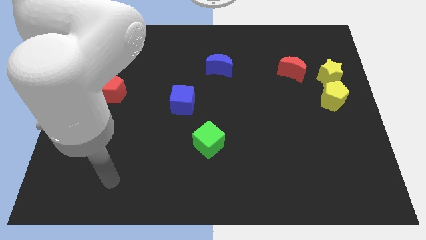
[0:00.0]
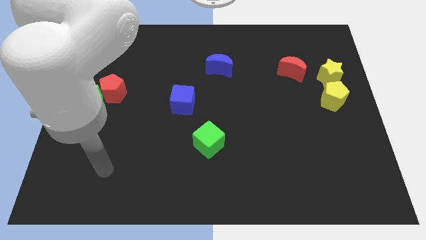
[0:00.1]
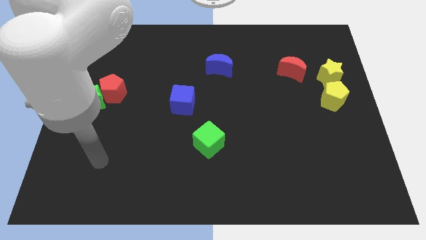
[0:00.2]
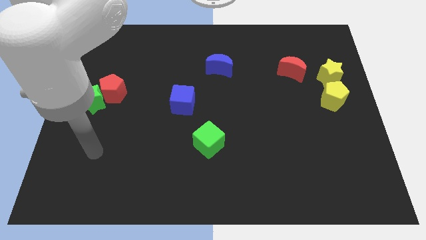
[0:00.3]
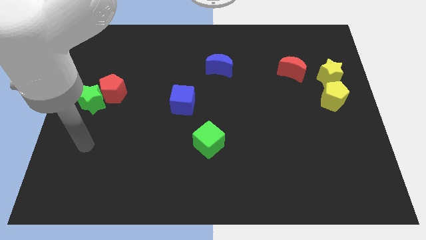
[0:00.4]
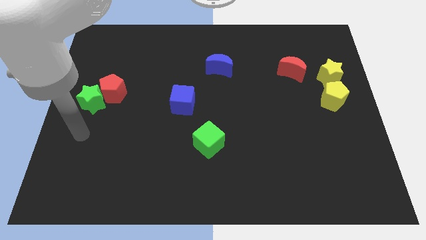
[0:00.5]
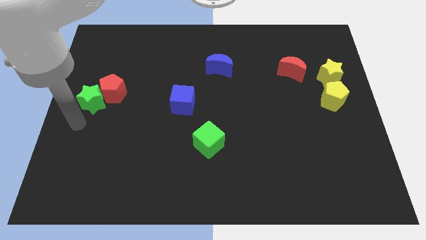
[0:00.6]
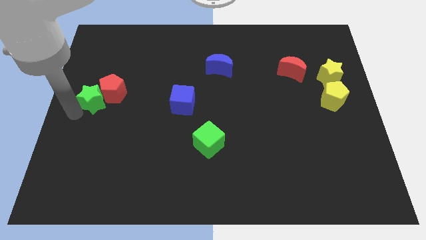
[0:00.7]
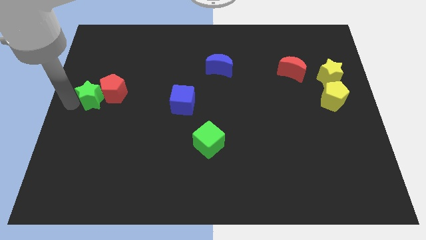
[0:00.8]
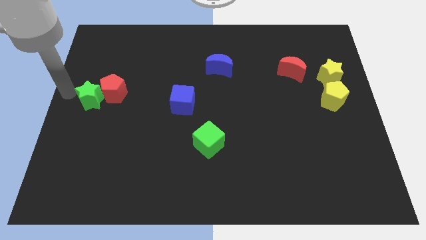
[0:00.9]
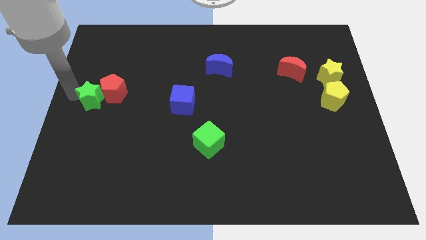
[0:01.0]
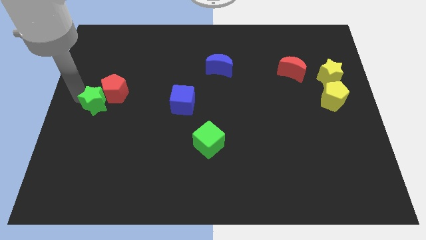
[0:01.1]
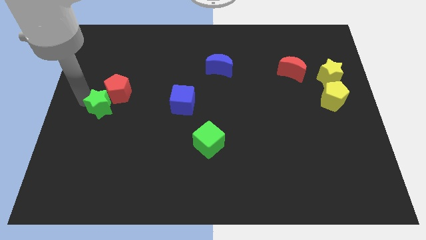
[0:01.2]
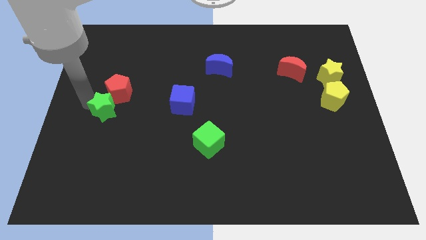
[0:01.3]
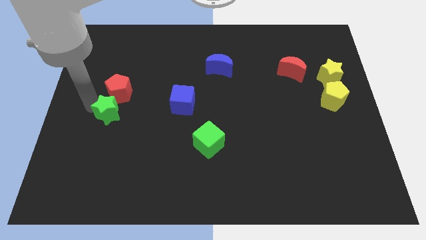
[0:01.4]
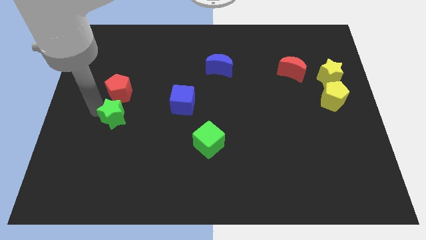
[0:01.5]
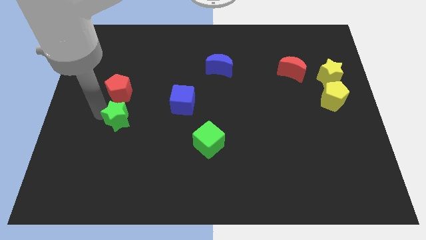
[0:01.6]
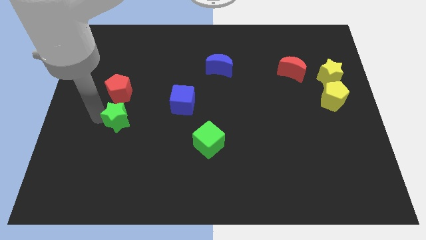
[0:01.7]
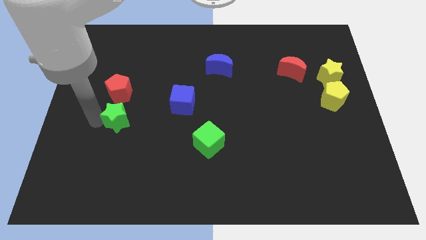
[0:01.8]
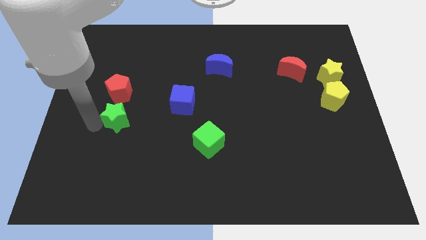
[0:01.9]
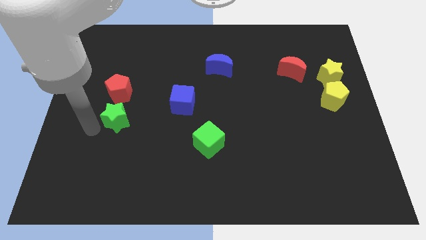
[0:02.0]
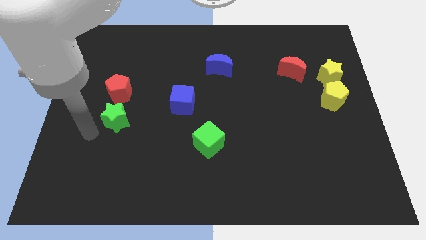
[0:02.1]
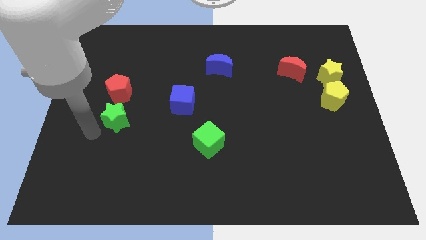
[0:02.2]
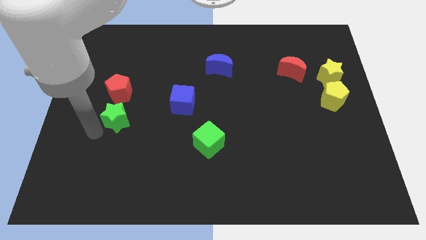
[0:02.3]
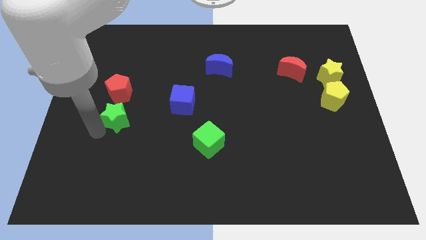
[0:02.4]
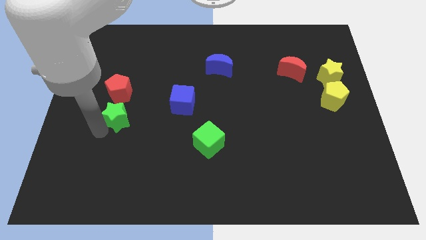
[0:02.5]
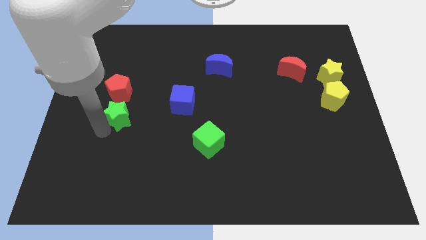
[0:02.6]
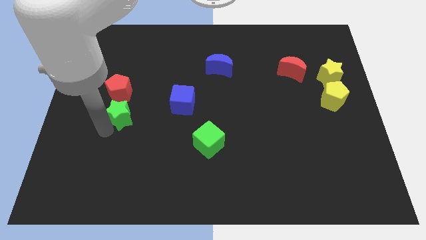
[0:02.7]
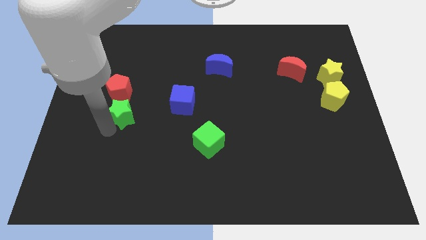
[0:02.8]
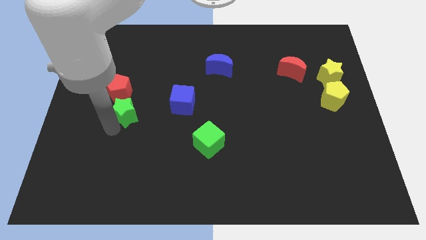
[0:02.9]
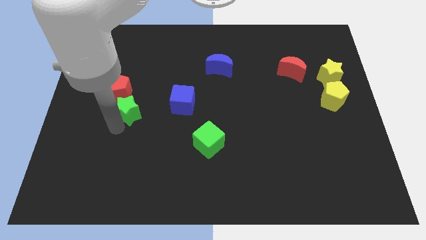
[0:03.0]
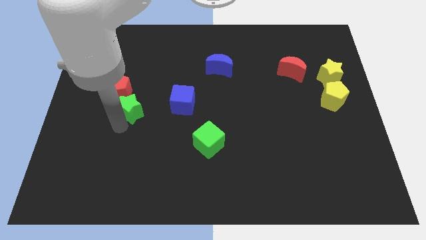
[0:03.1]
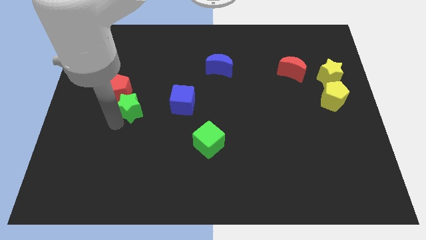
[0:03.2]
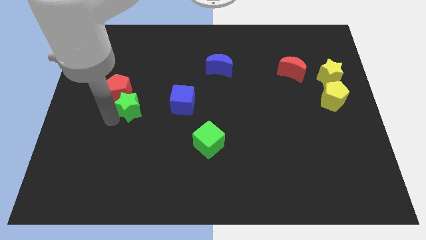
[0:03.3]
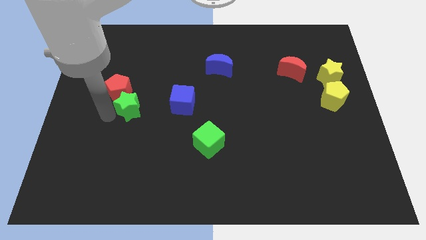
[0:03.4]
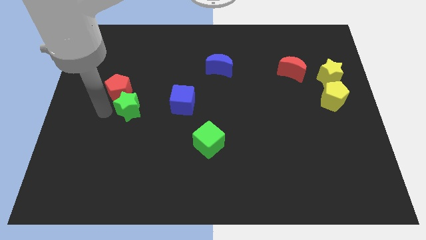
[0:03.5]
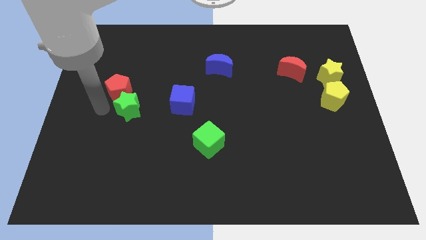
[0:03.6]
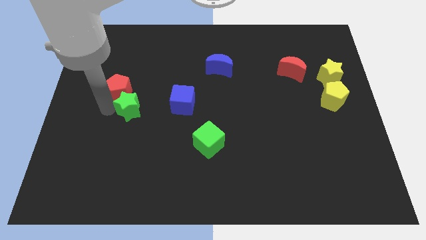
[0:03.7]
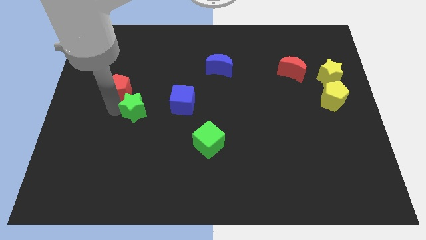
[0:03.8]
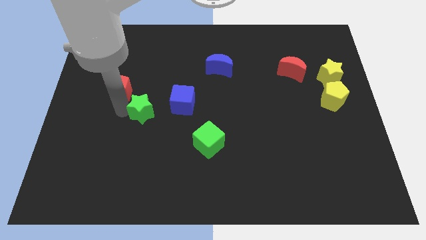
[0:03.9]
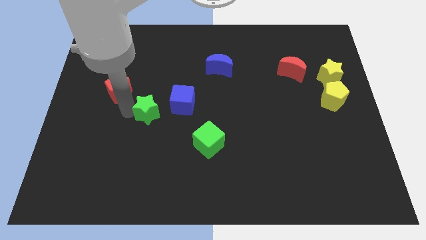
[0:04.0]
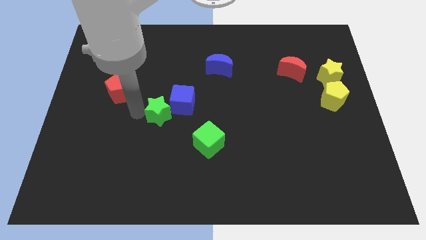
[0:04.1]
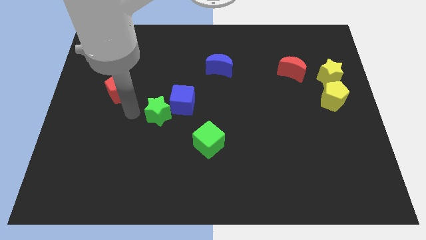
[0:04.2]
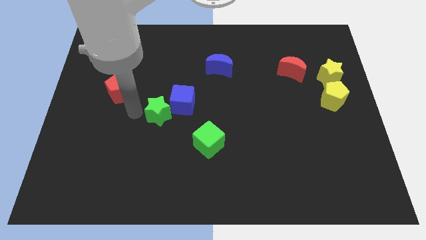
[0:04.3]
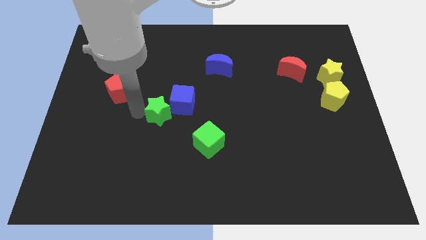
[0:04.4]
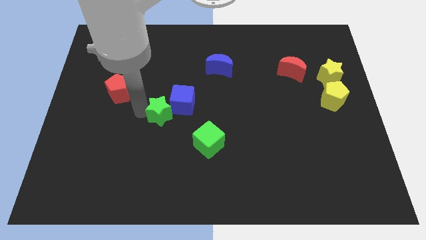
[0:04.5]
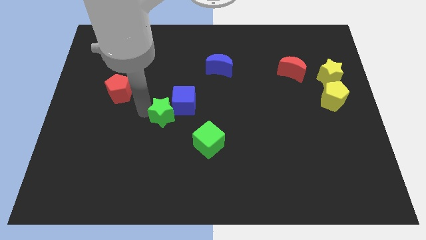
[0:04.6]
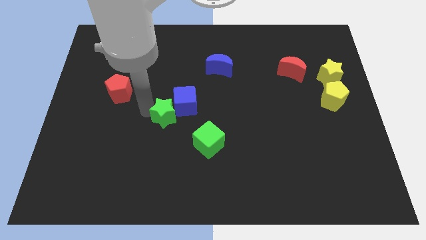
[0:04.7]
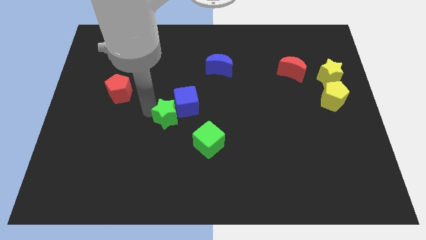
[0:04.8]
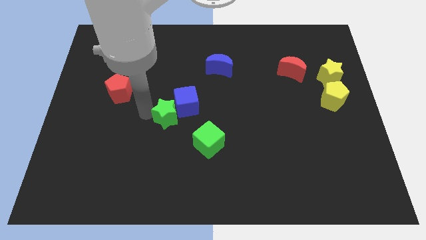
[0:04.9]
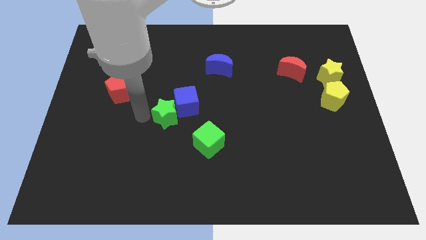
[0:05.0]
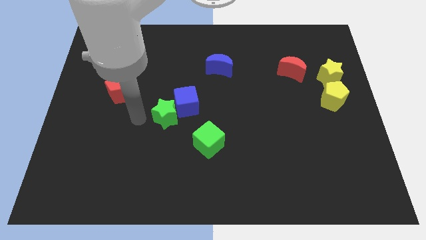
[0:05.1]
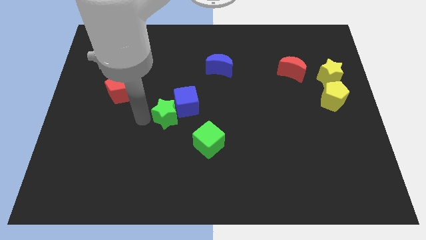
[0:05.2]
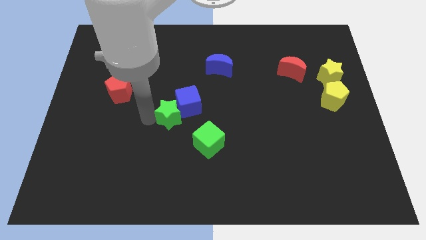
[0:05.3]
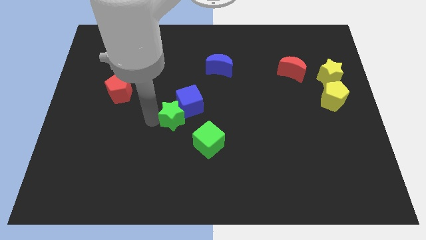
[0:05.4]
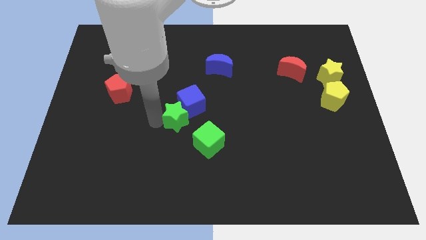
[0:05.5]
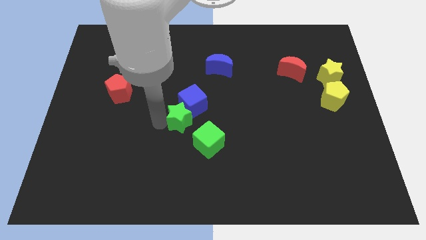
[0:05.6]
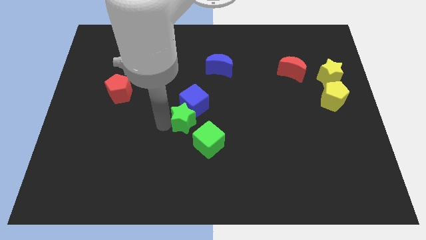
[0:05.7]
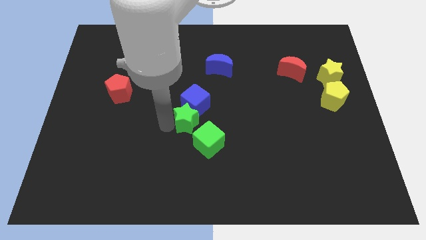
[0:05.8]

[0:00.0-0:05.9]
slide the green star to the top side of the green cube

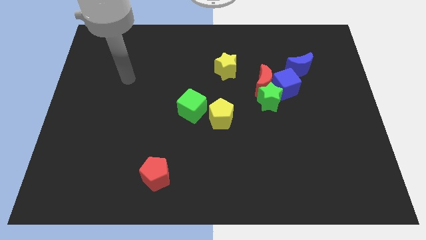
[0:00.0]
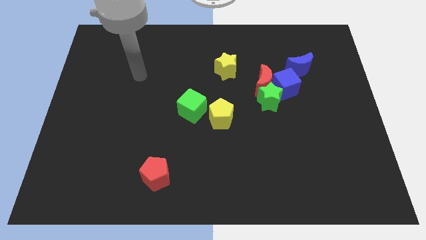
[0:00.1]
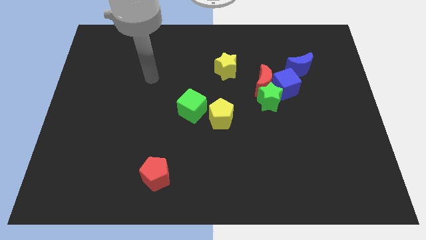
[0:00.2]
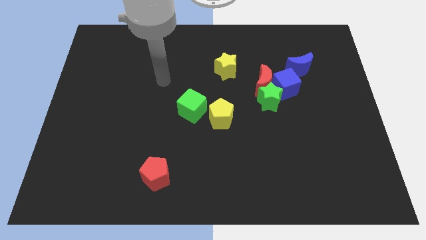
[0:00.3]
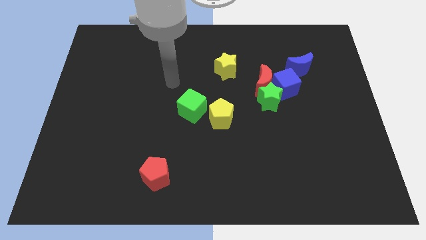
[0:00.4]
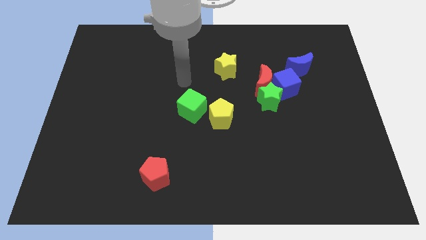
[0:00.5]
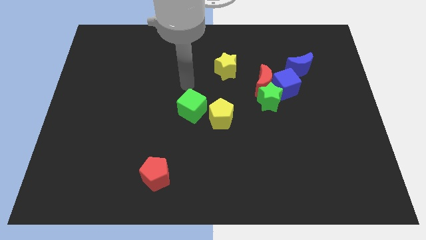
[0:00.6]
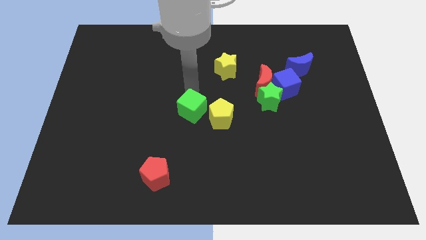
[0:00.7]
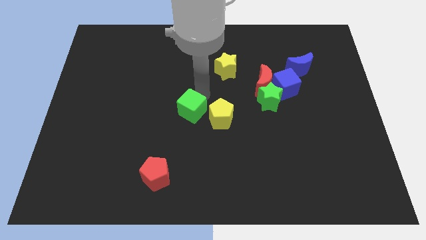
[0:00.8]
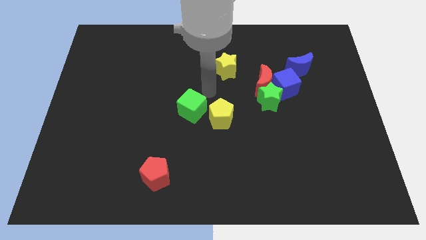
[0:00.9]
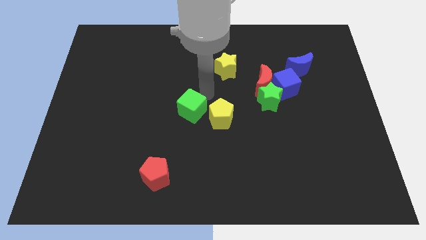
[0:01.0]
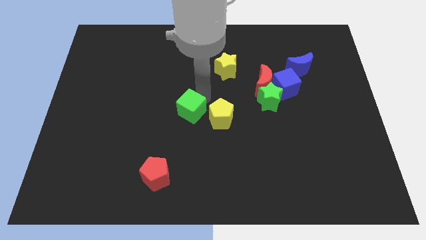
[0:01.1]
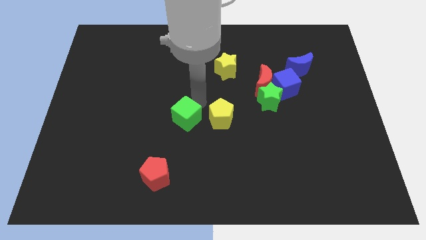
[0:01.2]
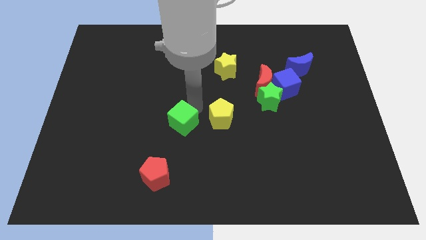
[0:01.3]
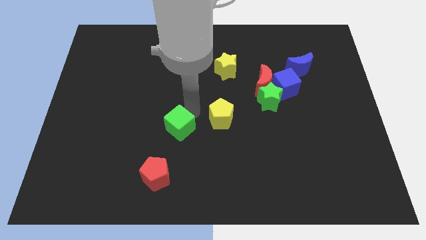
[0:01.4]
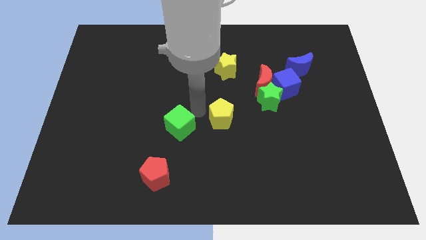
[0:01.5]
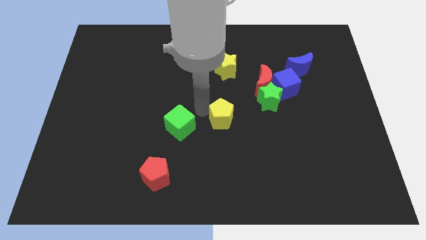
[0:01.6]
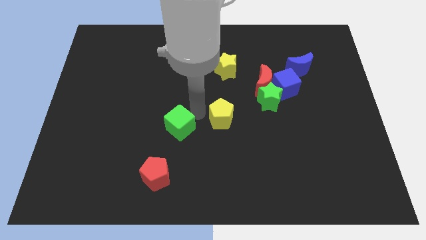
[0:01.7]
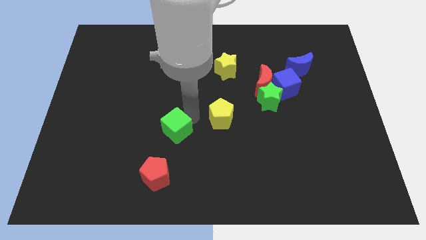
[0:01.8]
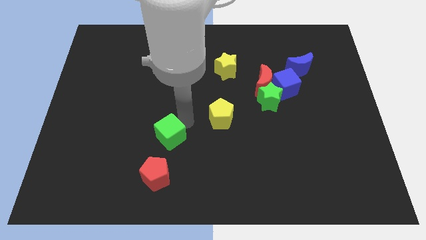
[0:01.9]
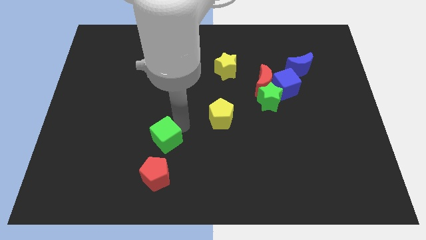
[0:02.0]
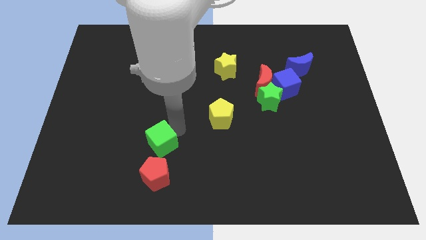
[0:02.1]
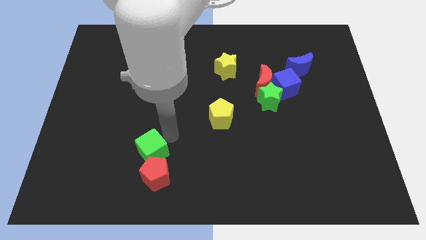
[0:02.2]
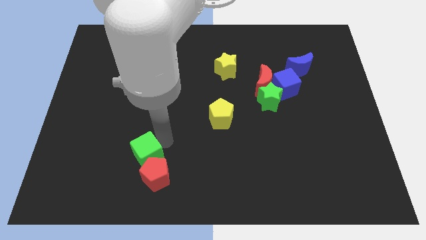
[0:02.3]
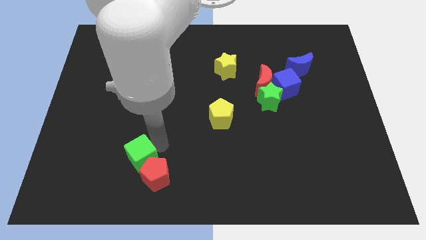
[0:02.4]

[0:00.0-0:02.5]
put the green cube to the left side of the red pentagon
